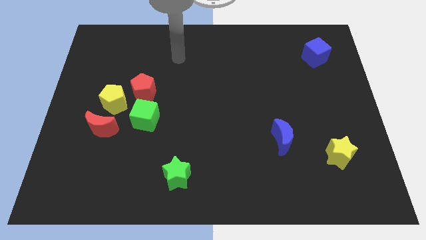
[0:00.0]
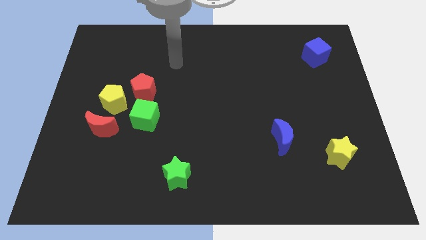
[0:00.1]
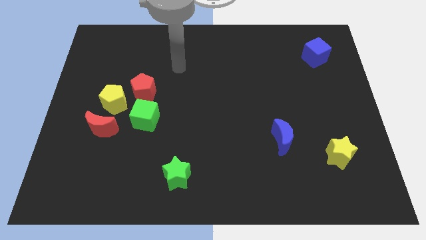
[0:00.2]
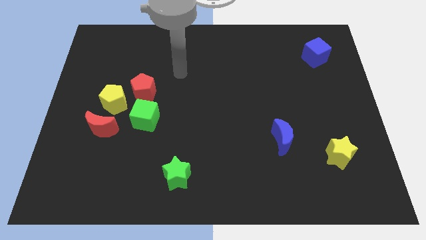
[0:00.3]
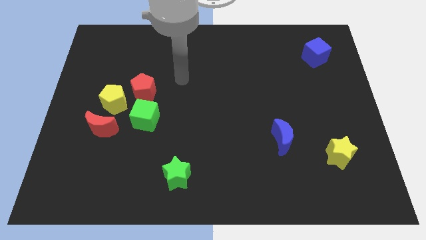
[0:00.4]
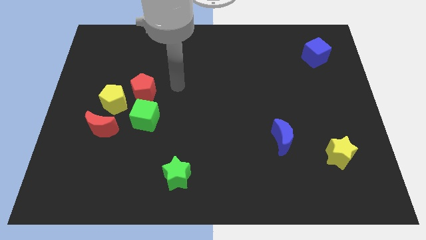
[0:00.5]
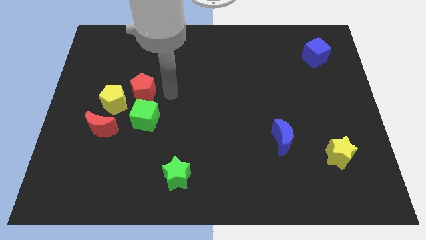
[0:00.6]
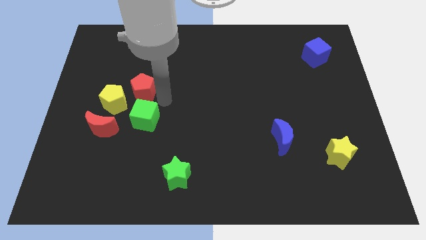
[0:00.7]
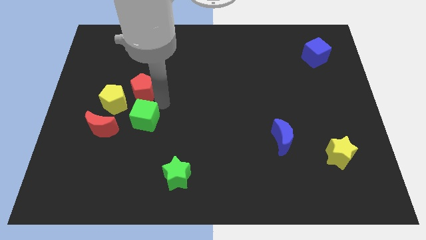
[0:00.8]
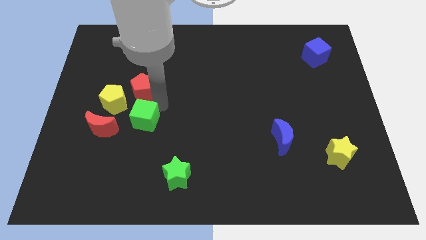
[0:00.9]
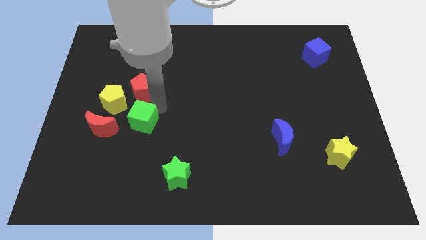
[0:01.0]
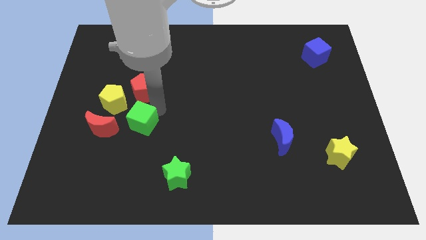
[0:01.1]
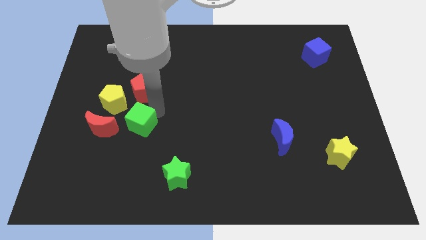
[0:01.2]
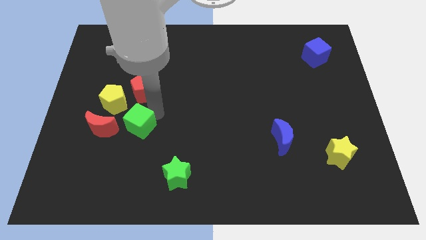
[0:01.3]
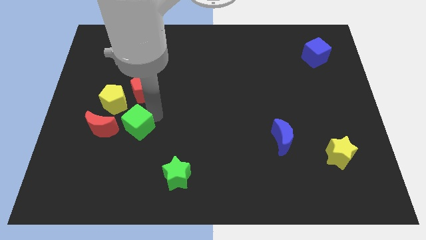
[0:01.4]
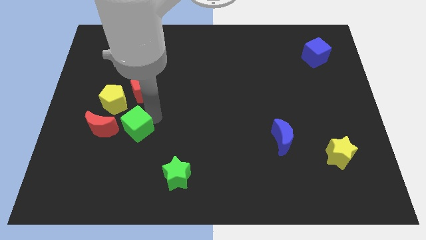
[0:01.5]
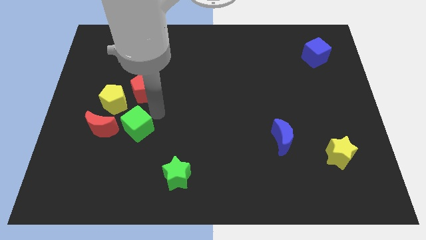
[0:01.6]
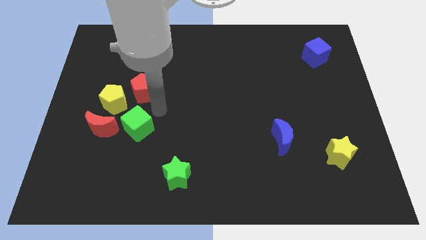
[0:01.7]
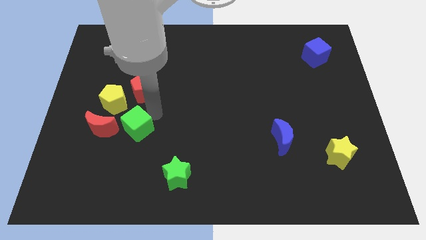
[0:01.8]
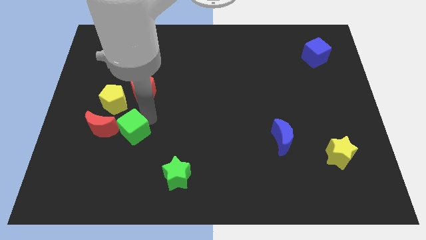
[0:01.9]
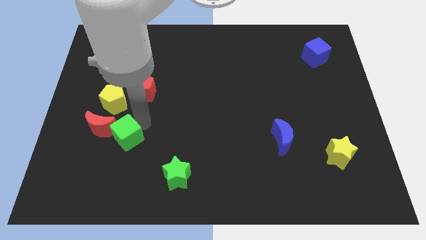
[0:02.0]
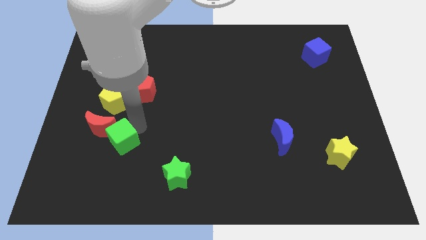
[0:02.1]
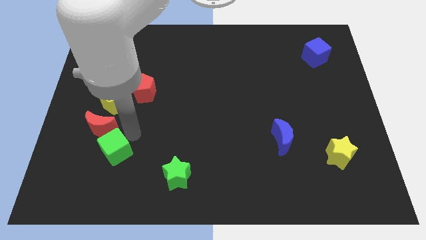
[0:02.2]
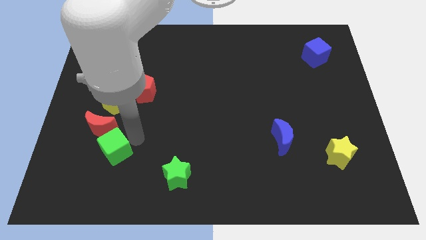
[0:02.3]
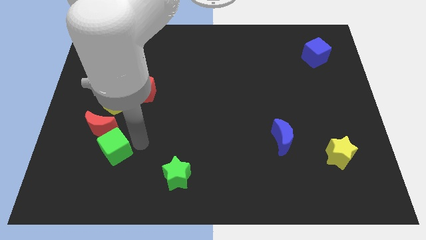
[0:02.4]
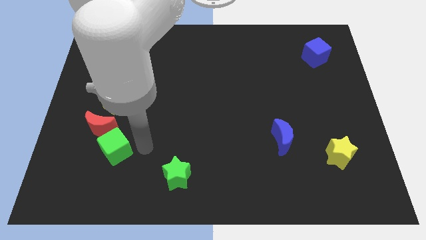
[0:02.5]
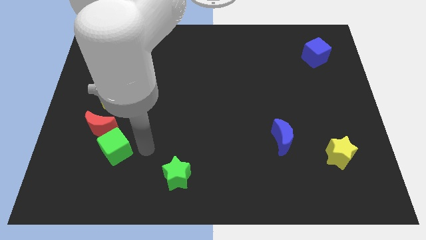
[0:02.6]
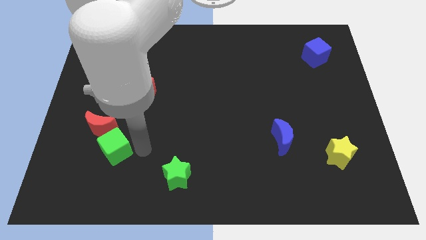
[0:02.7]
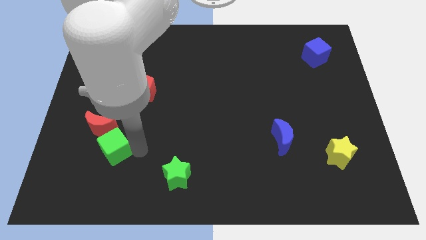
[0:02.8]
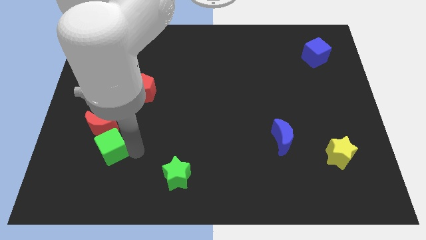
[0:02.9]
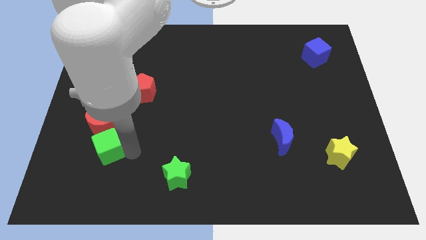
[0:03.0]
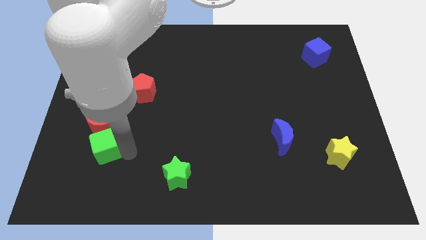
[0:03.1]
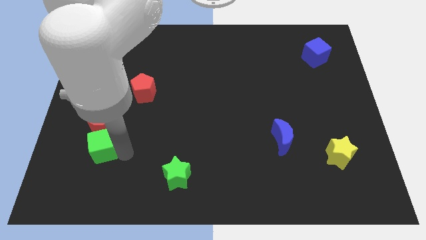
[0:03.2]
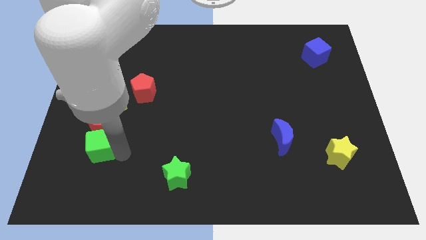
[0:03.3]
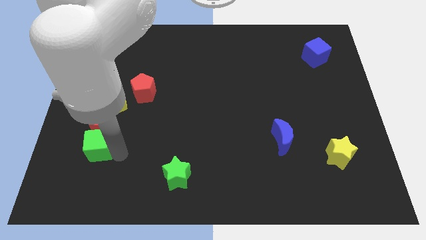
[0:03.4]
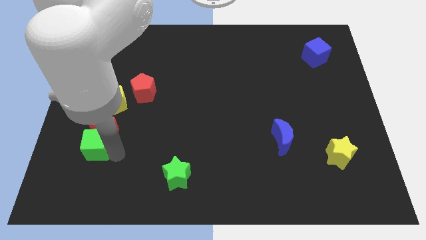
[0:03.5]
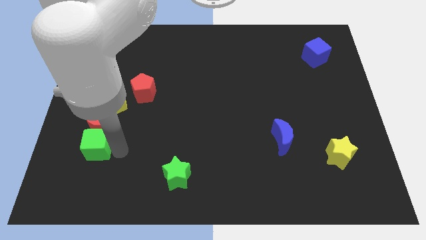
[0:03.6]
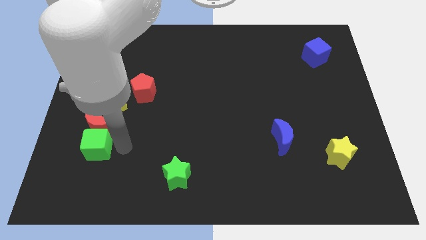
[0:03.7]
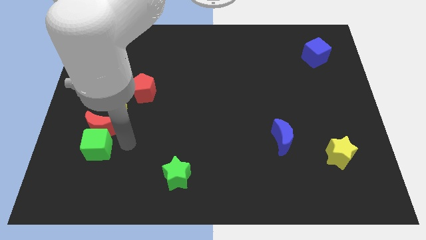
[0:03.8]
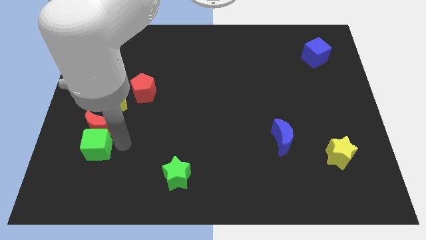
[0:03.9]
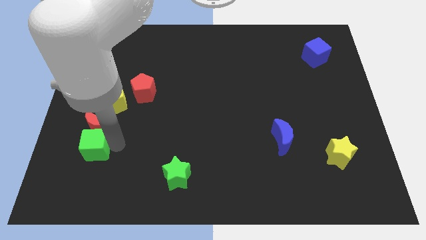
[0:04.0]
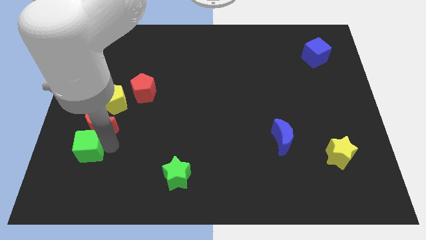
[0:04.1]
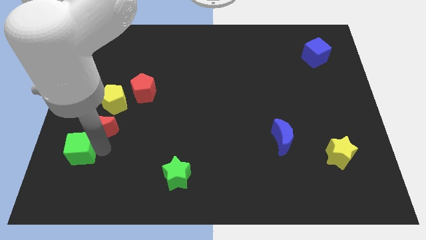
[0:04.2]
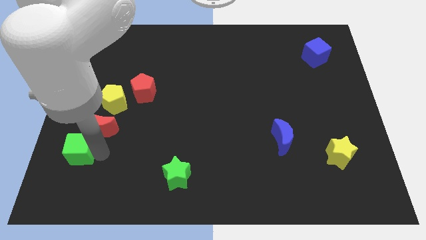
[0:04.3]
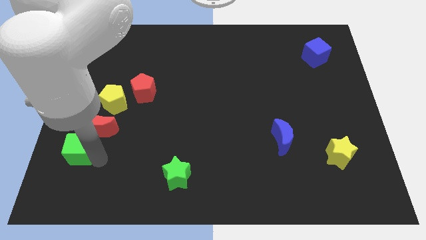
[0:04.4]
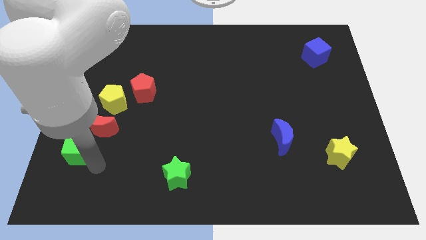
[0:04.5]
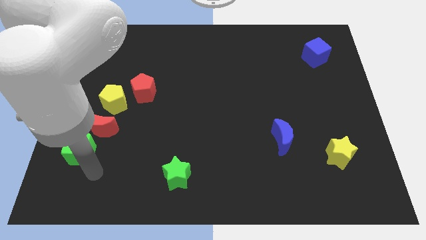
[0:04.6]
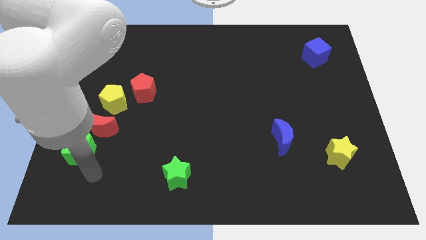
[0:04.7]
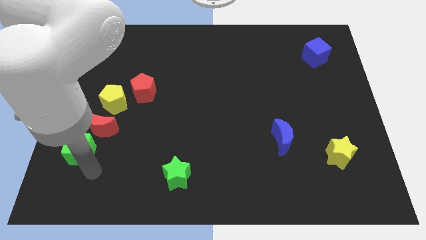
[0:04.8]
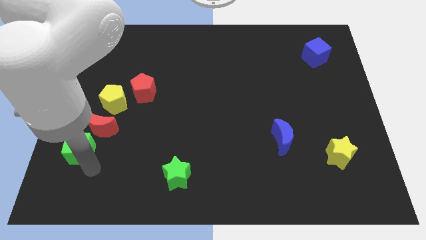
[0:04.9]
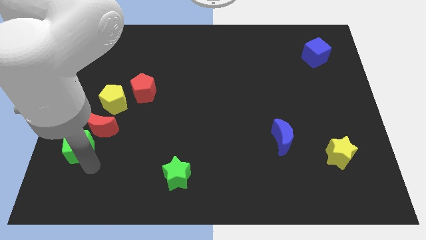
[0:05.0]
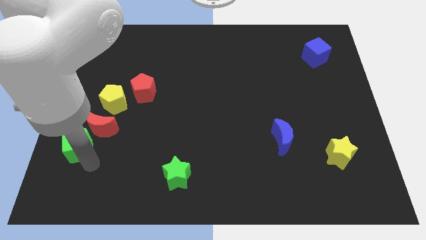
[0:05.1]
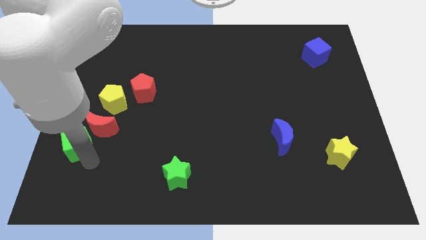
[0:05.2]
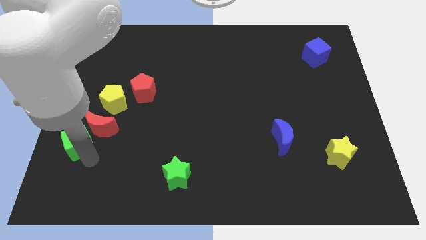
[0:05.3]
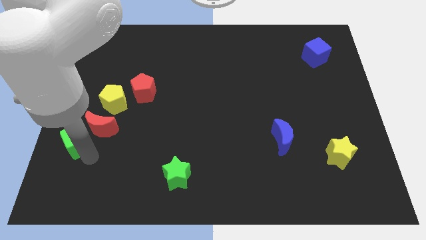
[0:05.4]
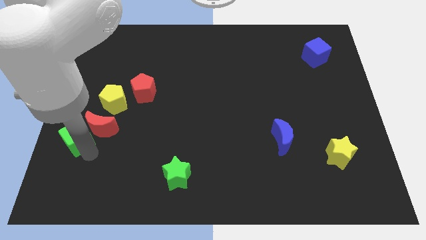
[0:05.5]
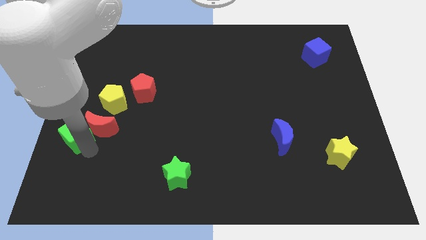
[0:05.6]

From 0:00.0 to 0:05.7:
put the green cube to the left side
